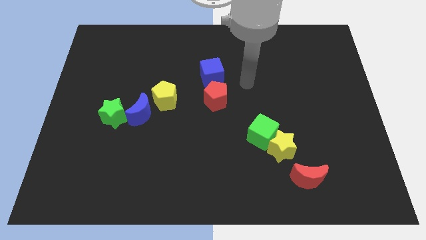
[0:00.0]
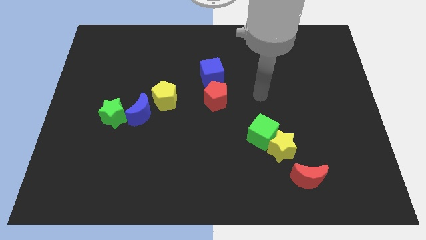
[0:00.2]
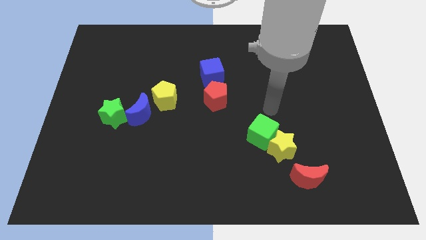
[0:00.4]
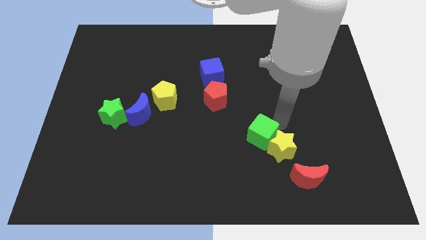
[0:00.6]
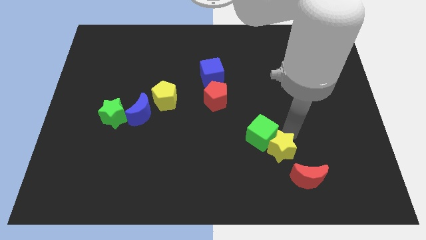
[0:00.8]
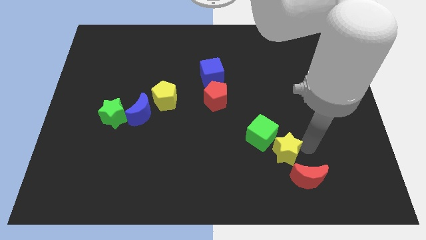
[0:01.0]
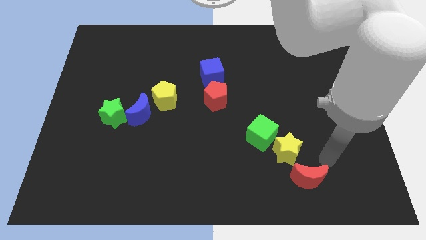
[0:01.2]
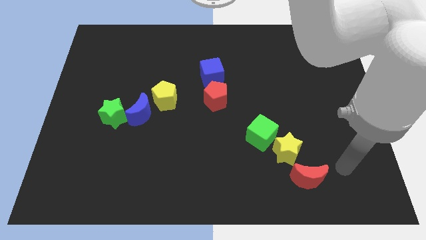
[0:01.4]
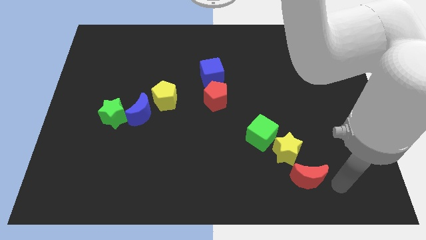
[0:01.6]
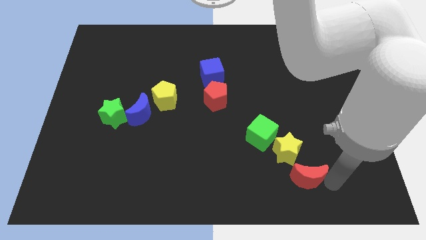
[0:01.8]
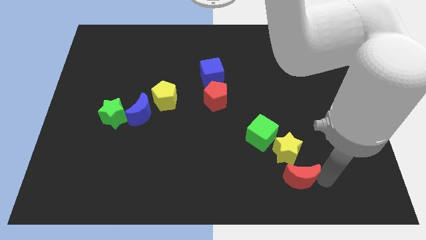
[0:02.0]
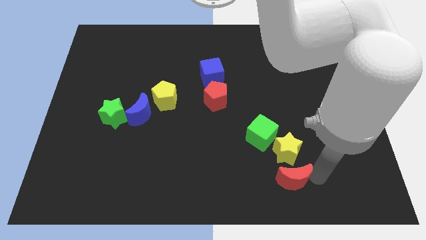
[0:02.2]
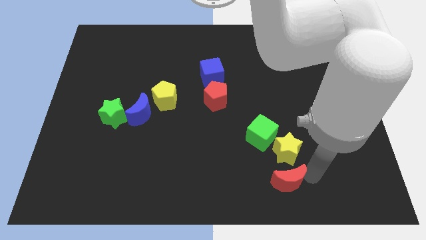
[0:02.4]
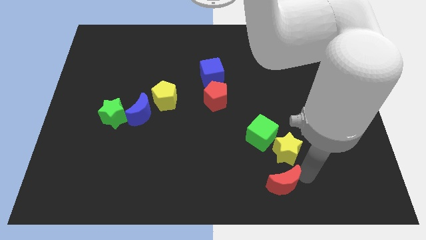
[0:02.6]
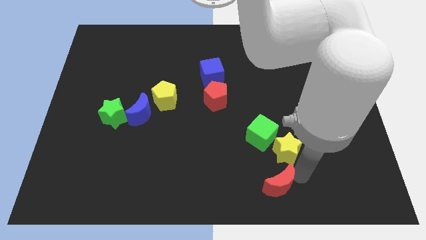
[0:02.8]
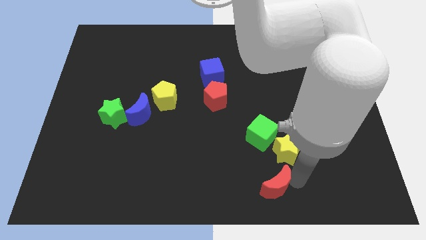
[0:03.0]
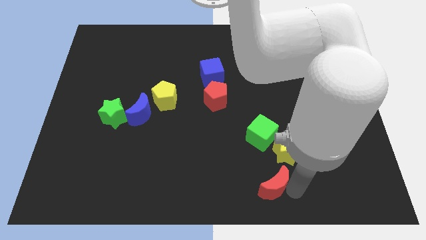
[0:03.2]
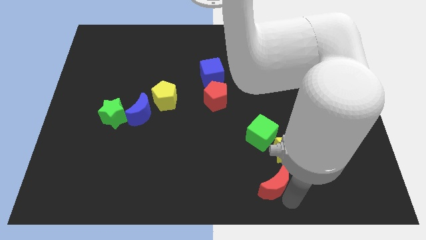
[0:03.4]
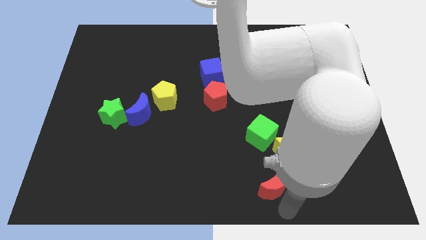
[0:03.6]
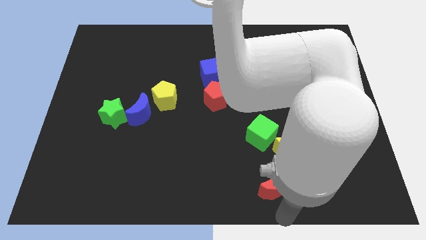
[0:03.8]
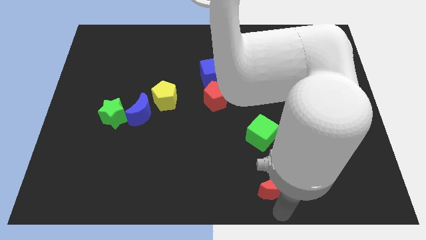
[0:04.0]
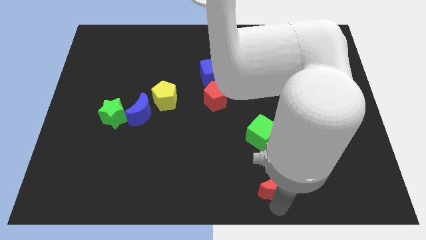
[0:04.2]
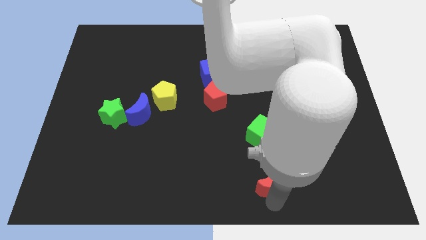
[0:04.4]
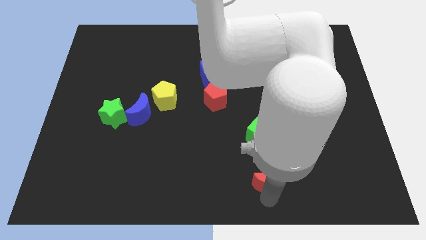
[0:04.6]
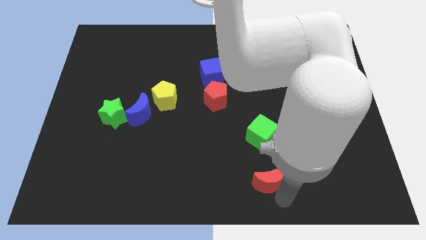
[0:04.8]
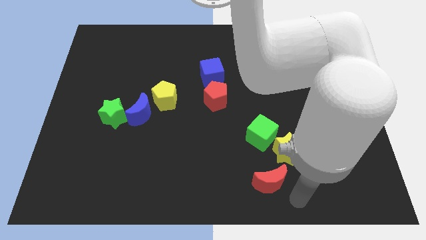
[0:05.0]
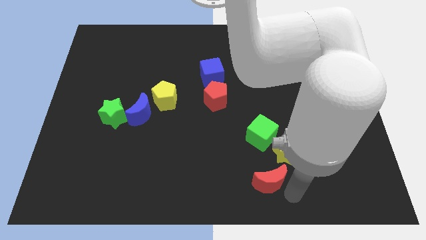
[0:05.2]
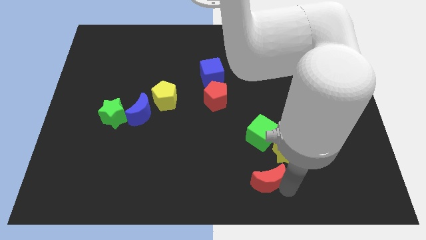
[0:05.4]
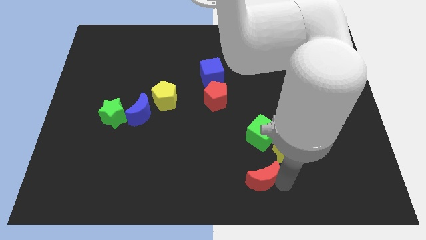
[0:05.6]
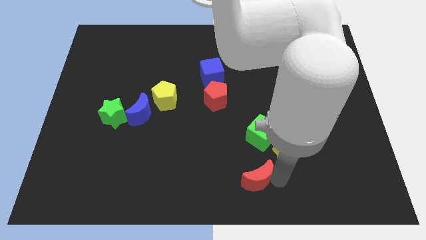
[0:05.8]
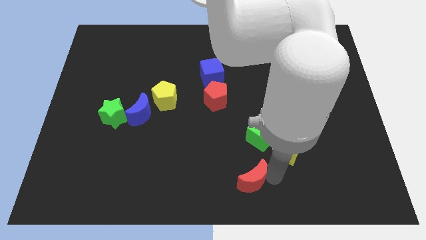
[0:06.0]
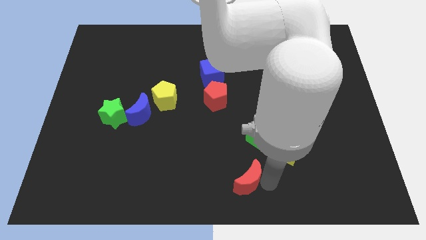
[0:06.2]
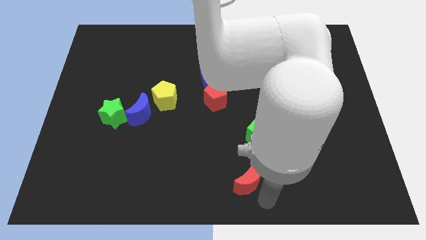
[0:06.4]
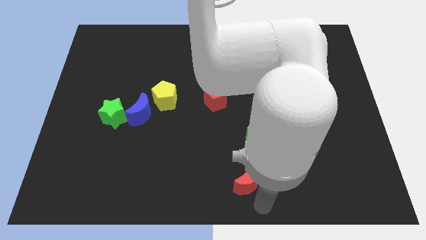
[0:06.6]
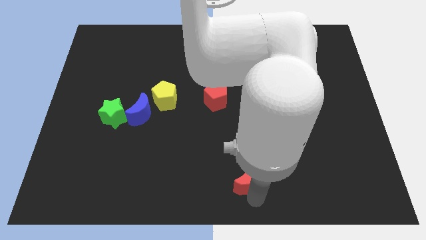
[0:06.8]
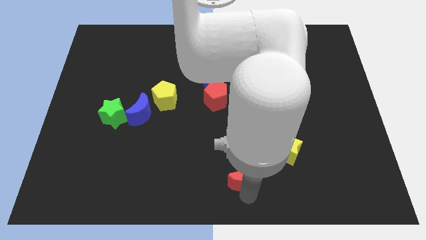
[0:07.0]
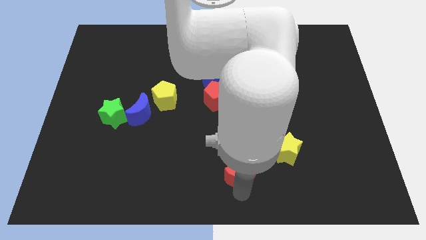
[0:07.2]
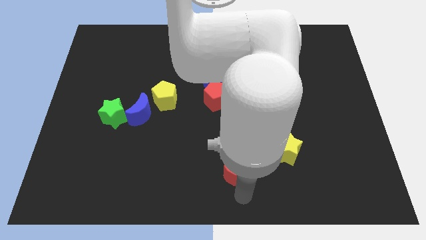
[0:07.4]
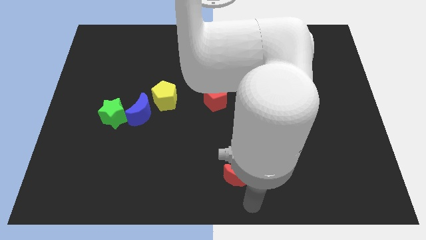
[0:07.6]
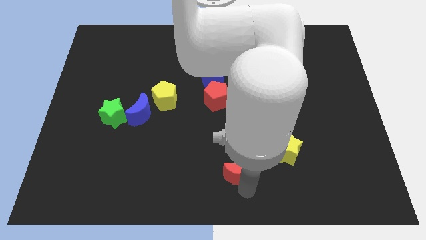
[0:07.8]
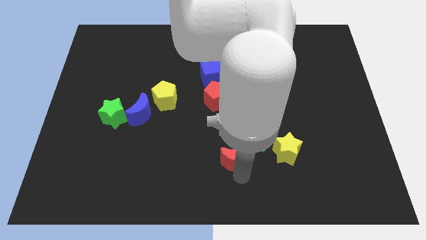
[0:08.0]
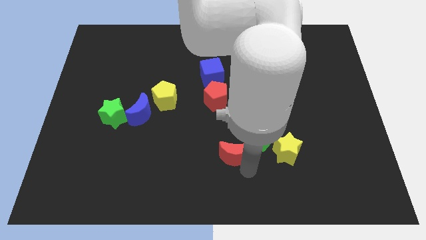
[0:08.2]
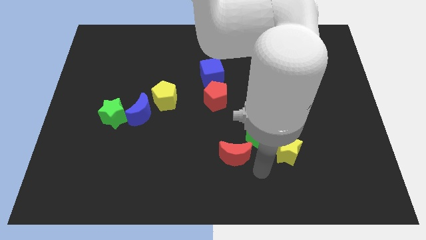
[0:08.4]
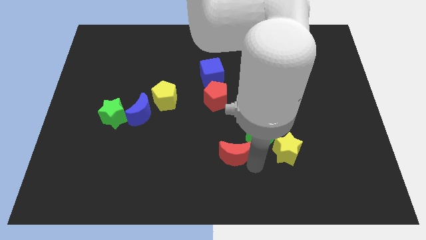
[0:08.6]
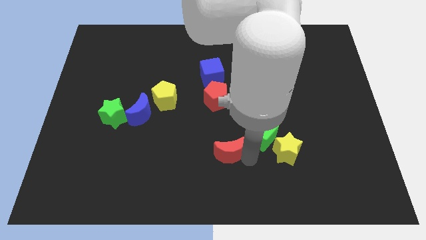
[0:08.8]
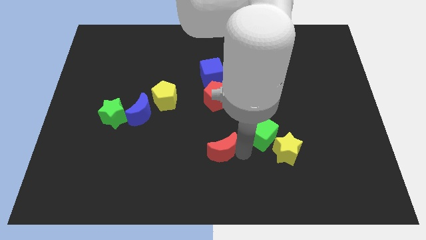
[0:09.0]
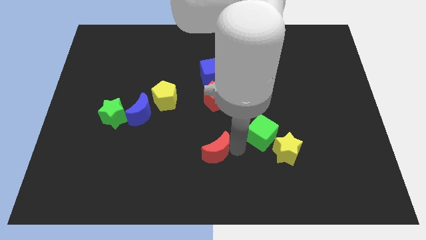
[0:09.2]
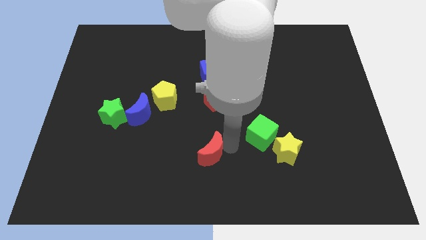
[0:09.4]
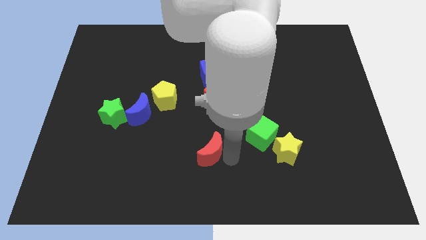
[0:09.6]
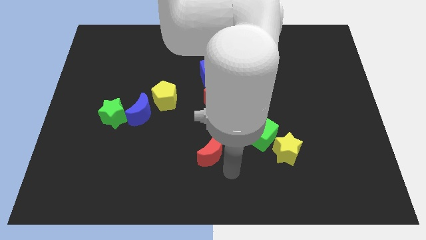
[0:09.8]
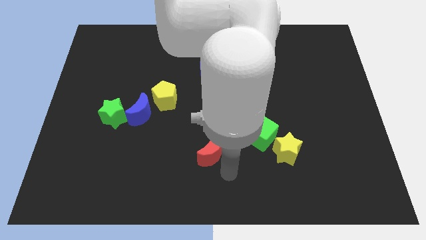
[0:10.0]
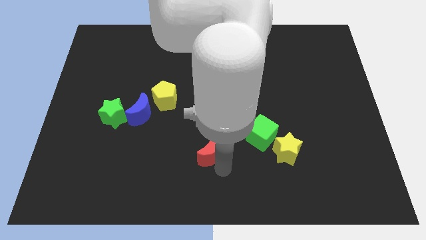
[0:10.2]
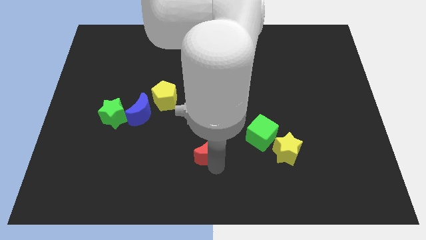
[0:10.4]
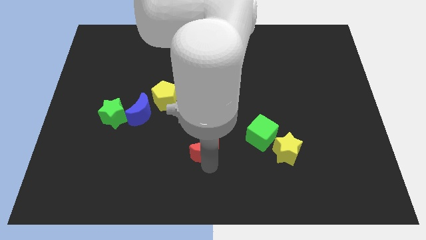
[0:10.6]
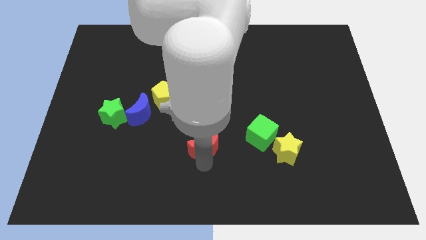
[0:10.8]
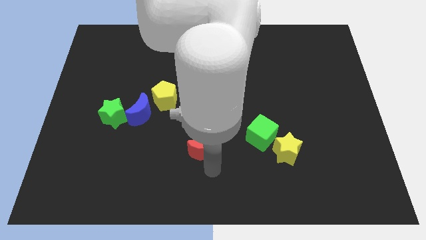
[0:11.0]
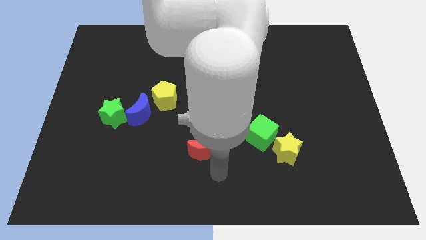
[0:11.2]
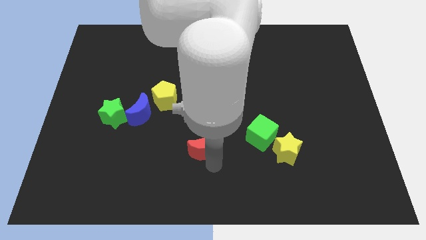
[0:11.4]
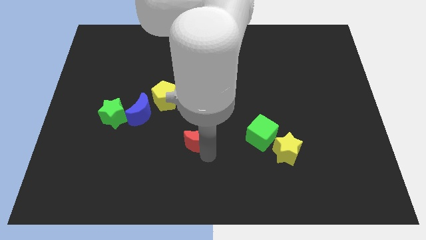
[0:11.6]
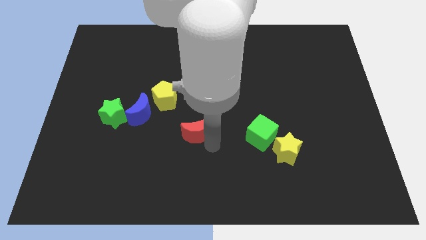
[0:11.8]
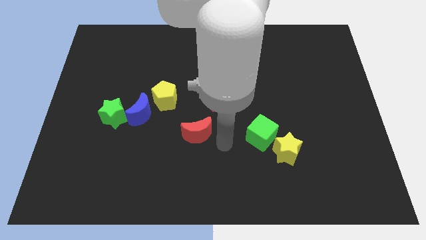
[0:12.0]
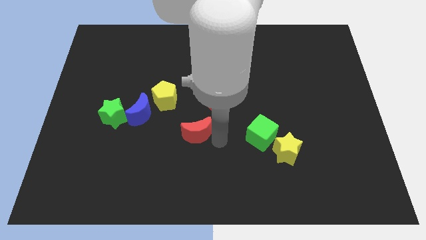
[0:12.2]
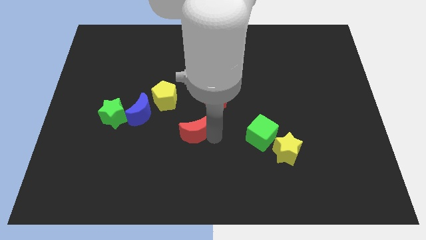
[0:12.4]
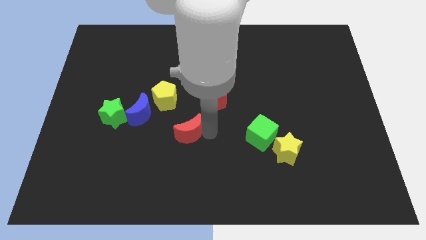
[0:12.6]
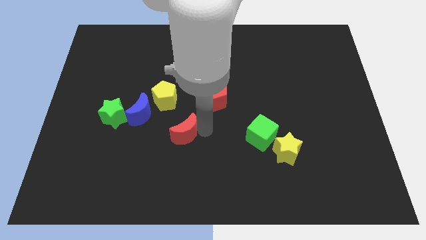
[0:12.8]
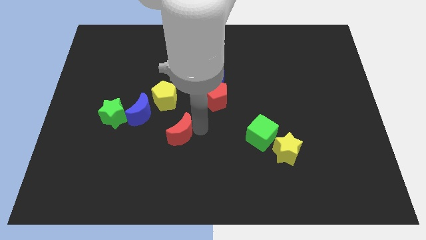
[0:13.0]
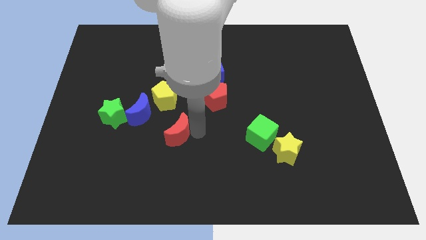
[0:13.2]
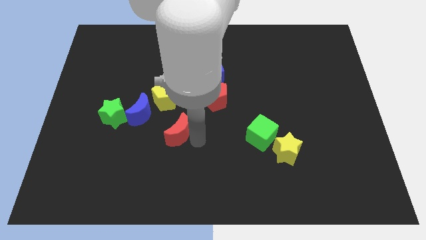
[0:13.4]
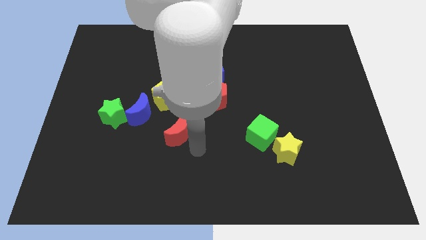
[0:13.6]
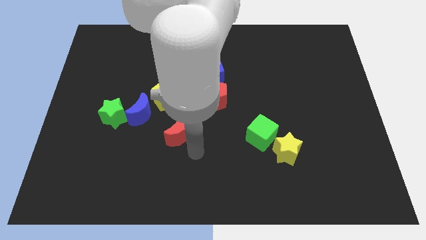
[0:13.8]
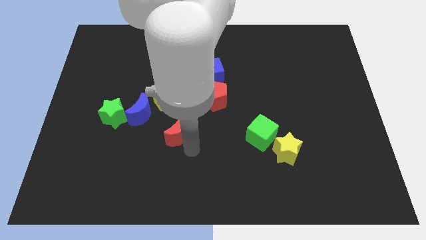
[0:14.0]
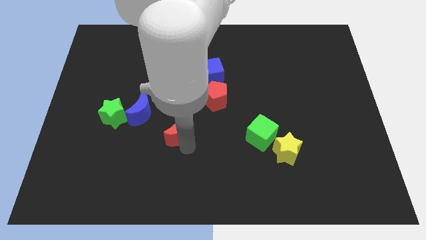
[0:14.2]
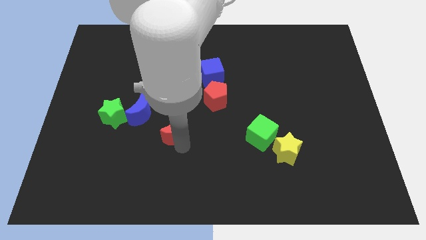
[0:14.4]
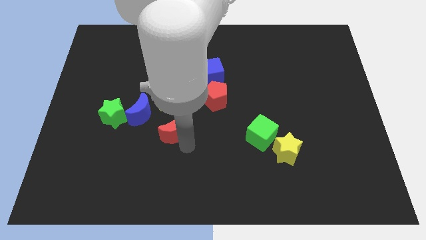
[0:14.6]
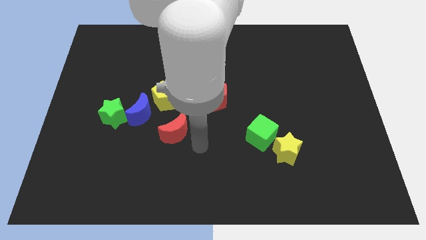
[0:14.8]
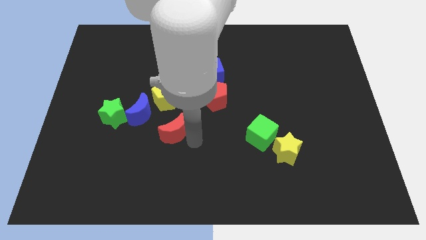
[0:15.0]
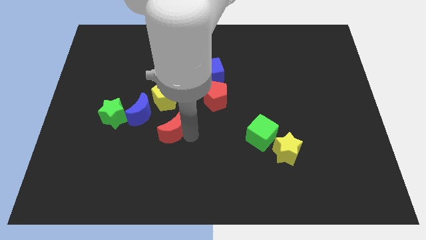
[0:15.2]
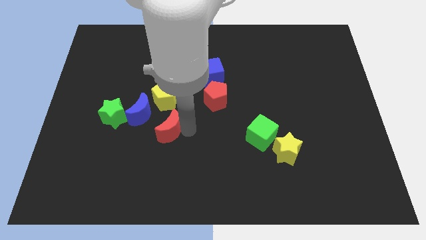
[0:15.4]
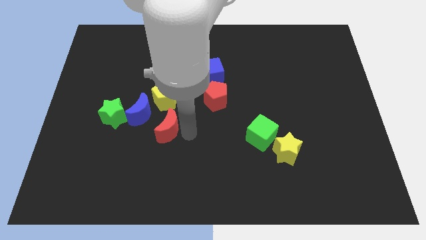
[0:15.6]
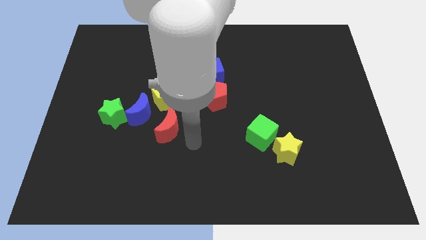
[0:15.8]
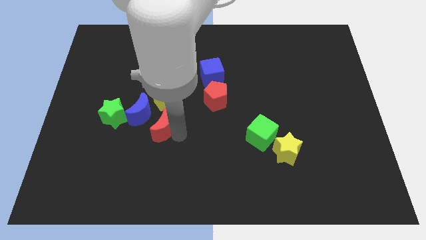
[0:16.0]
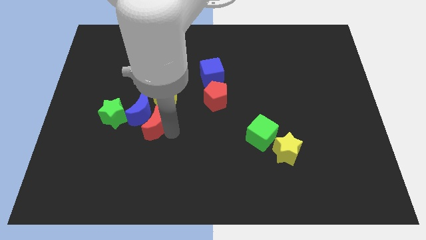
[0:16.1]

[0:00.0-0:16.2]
slide the red moon to the blue moon
